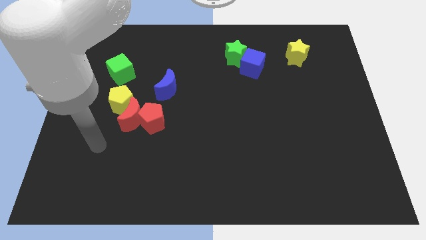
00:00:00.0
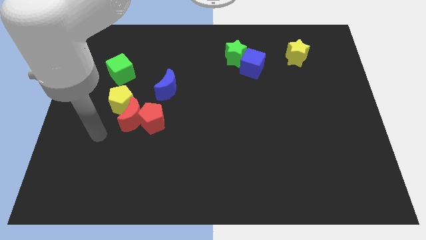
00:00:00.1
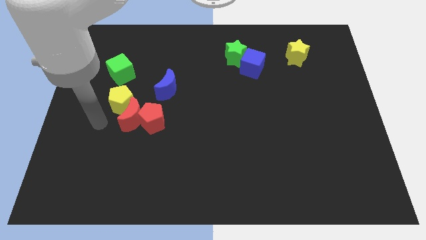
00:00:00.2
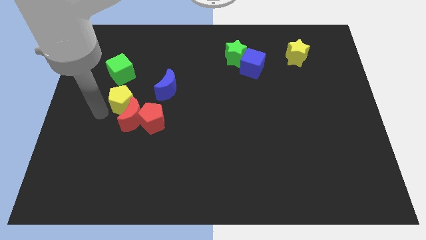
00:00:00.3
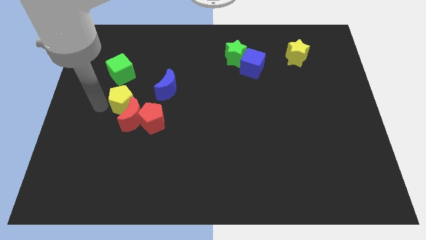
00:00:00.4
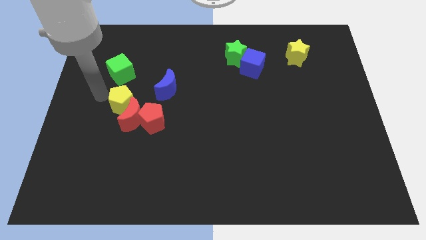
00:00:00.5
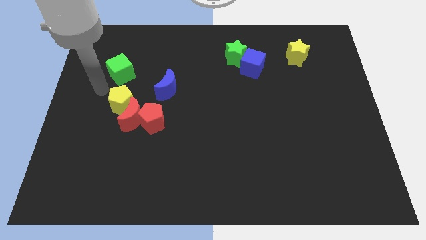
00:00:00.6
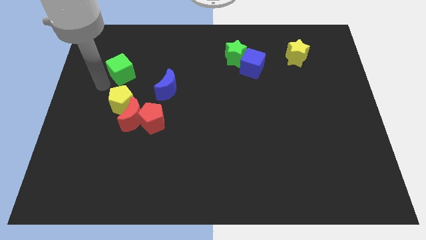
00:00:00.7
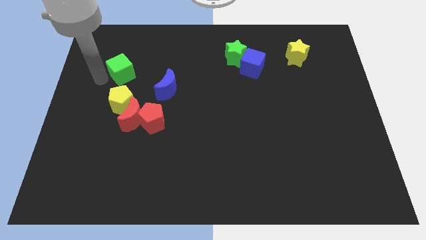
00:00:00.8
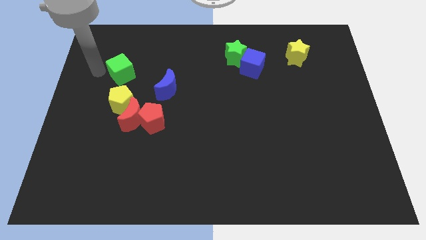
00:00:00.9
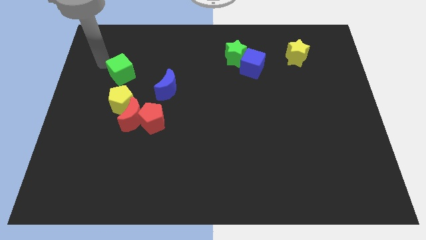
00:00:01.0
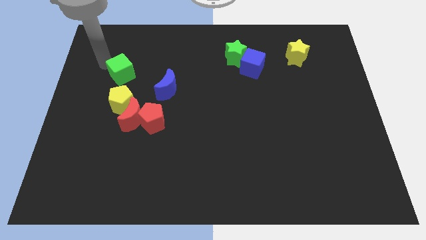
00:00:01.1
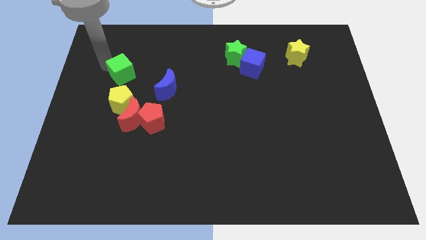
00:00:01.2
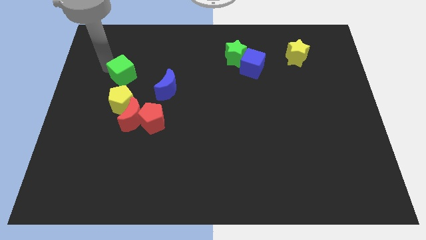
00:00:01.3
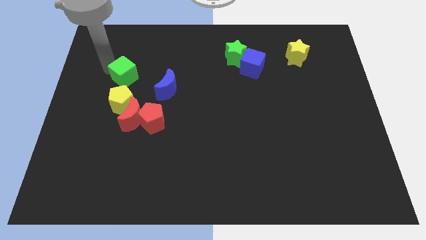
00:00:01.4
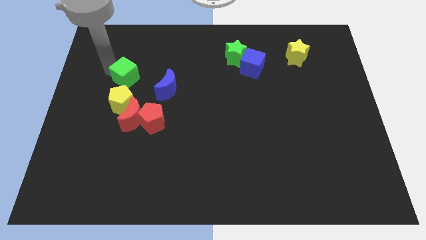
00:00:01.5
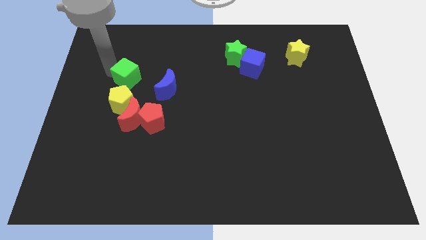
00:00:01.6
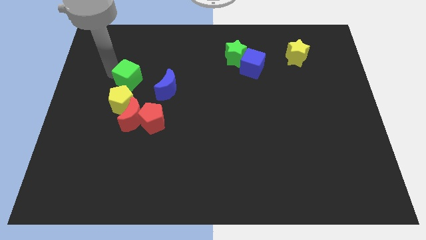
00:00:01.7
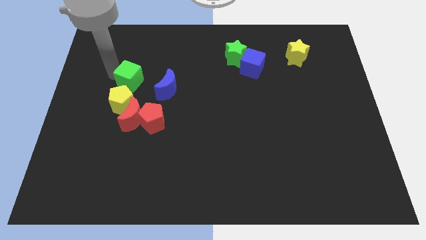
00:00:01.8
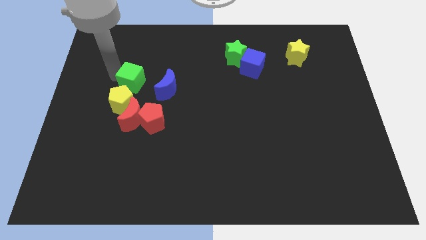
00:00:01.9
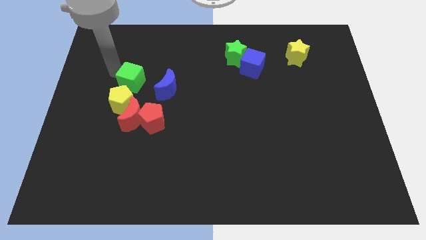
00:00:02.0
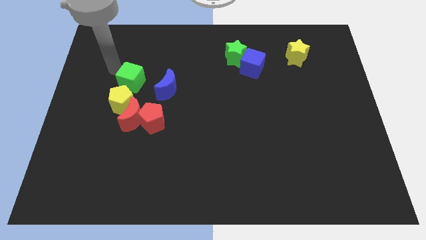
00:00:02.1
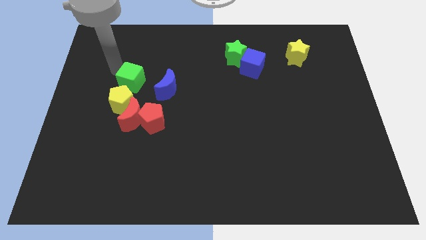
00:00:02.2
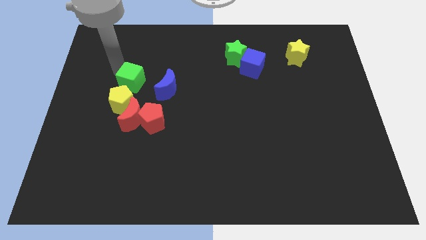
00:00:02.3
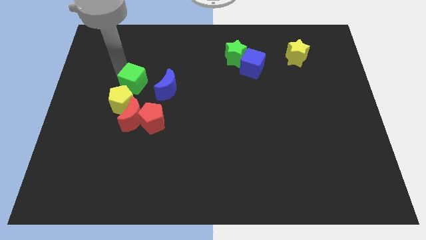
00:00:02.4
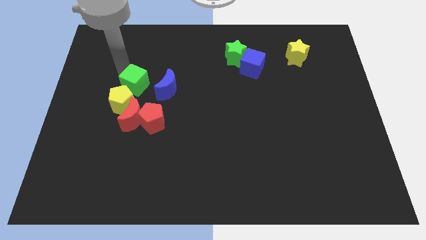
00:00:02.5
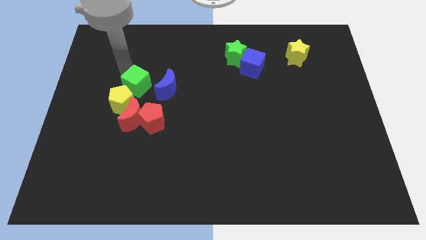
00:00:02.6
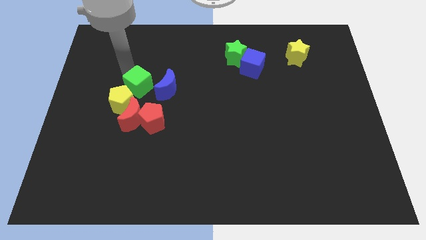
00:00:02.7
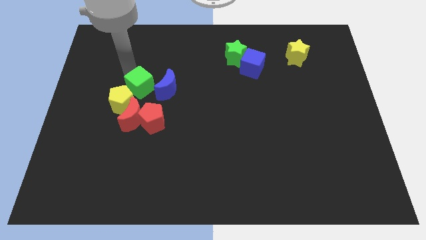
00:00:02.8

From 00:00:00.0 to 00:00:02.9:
slide the green cube a little diagonally down and right

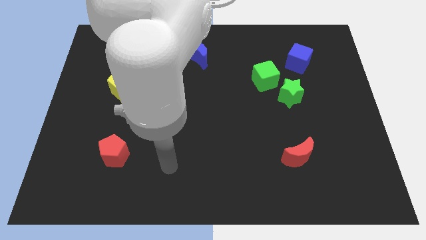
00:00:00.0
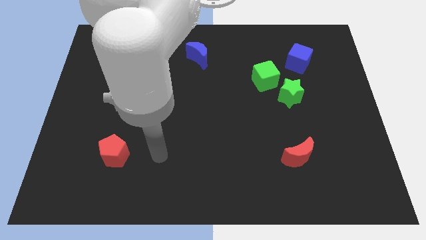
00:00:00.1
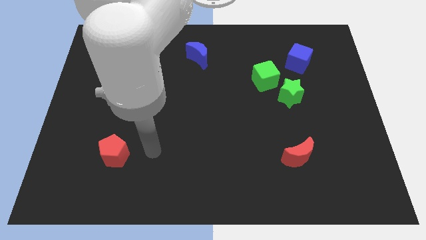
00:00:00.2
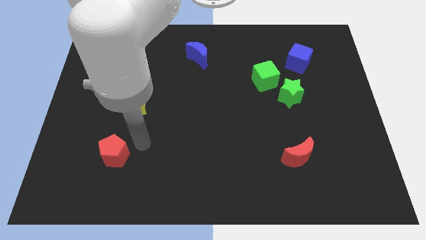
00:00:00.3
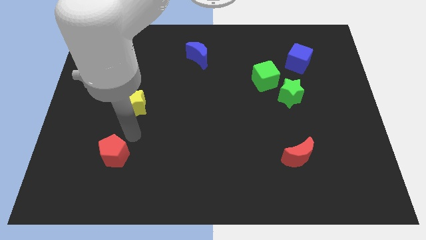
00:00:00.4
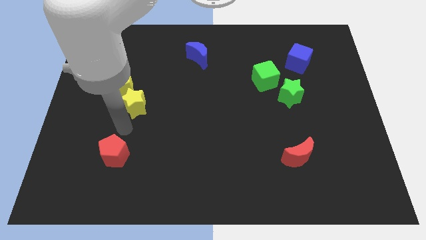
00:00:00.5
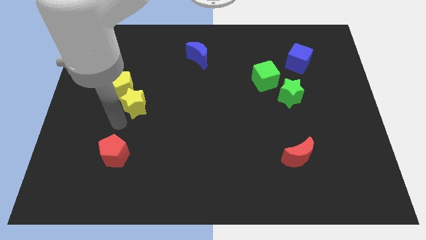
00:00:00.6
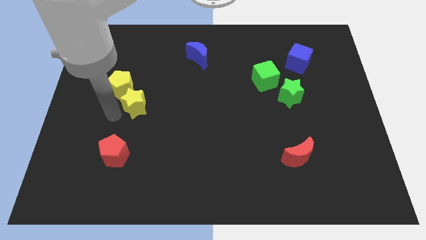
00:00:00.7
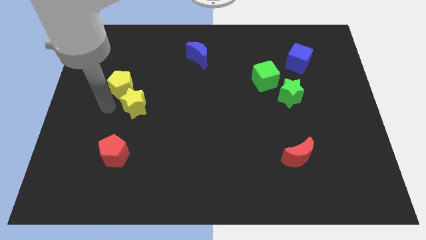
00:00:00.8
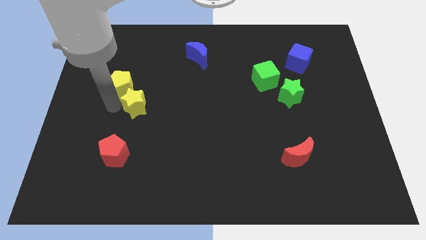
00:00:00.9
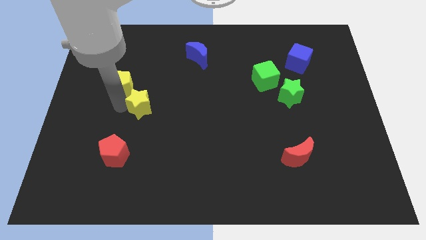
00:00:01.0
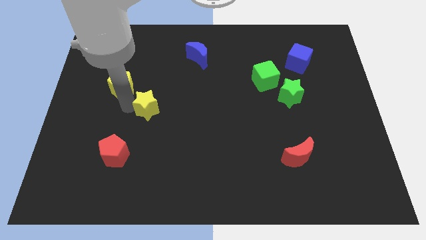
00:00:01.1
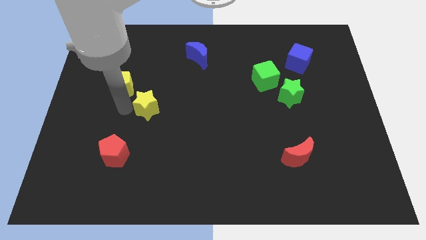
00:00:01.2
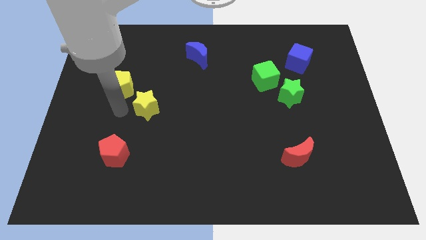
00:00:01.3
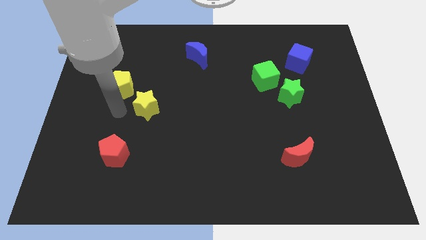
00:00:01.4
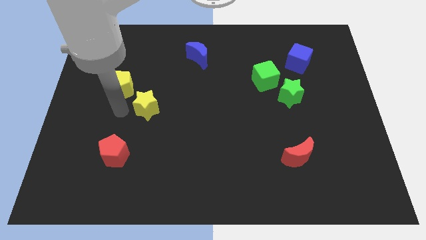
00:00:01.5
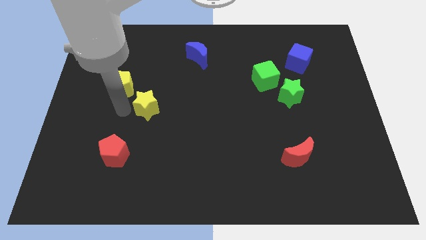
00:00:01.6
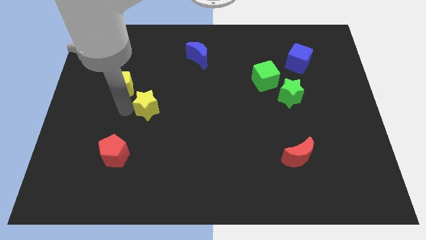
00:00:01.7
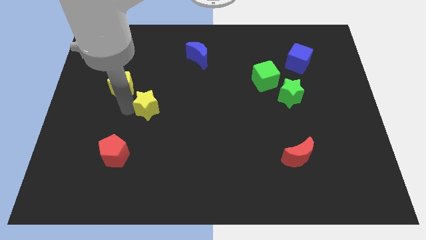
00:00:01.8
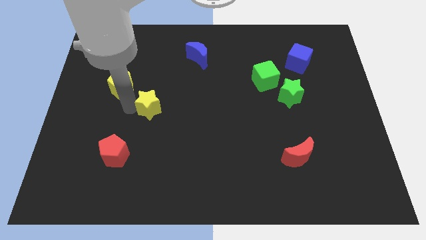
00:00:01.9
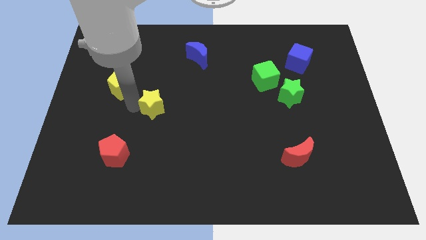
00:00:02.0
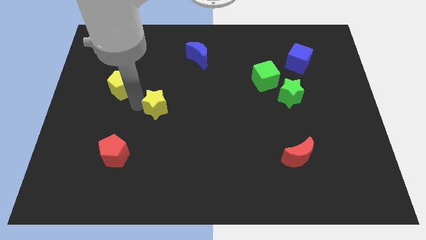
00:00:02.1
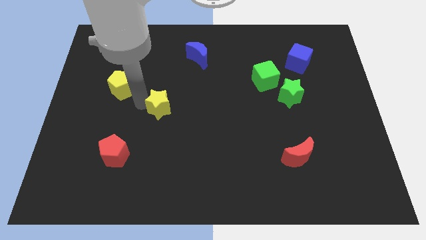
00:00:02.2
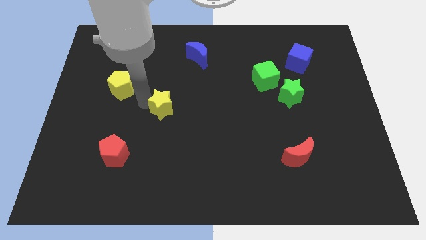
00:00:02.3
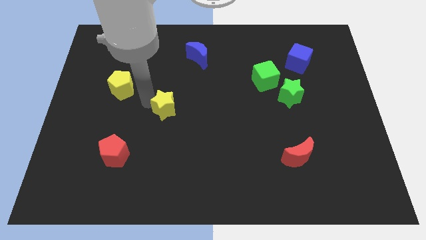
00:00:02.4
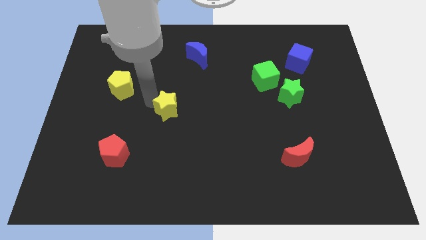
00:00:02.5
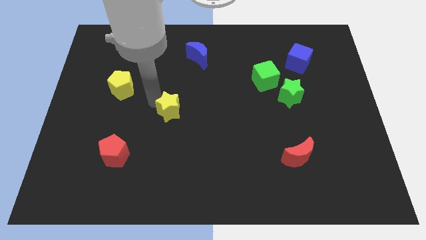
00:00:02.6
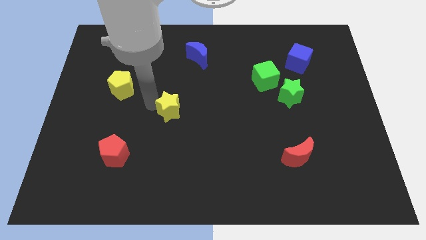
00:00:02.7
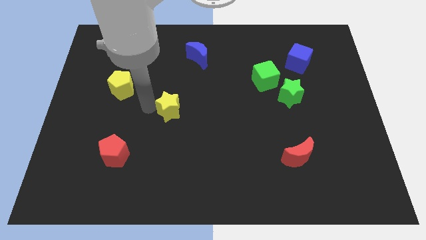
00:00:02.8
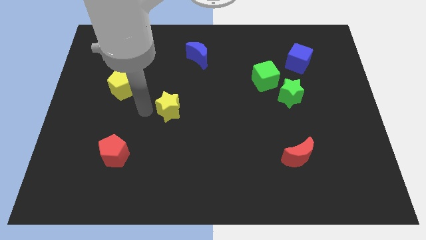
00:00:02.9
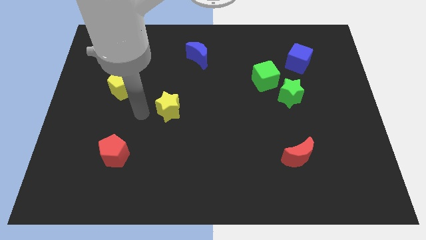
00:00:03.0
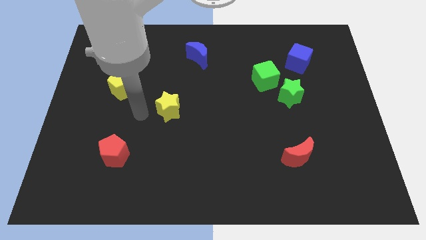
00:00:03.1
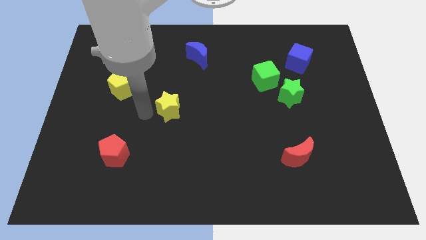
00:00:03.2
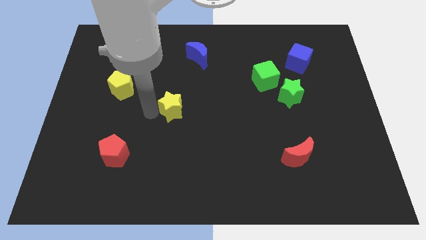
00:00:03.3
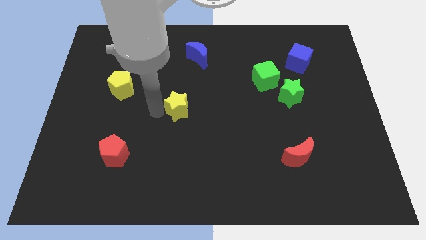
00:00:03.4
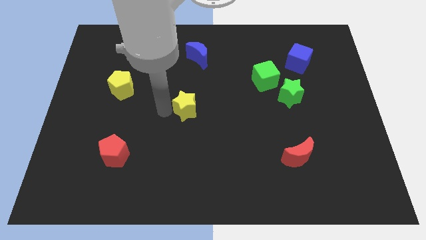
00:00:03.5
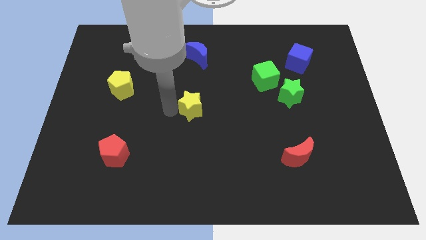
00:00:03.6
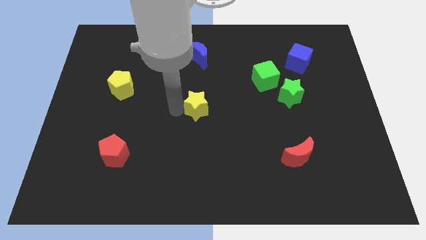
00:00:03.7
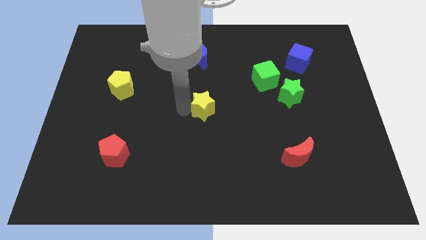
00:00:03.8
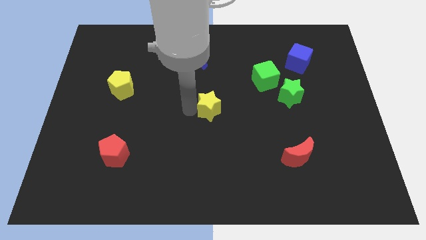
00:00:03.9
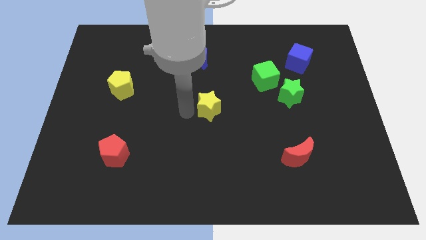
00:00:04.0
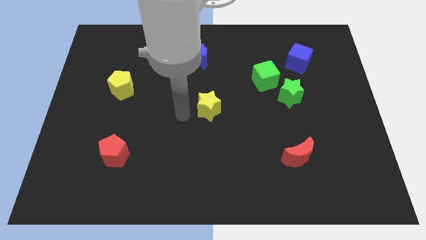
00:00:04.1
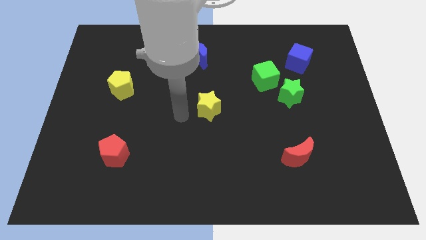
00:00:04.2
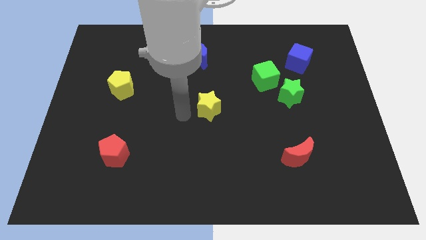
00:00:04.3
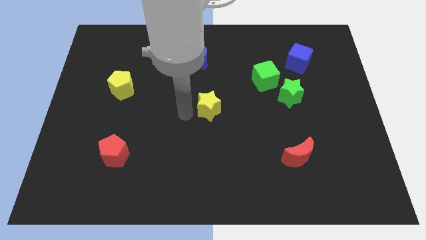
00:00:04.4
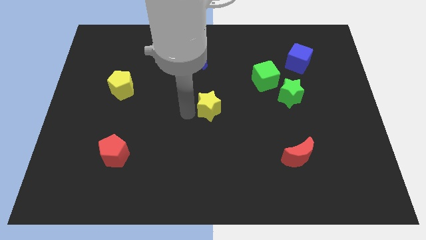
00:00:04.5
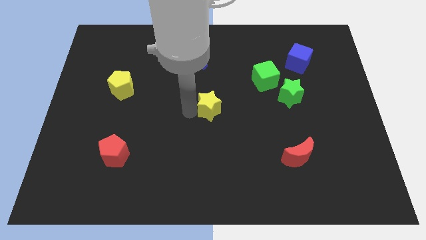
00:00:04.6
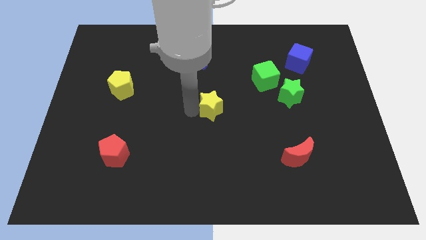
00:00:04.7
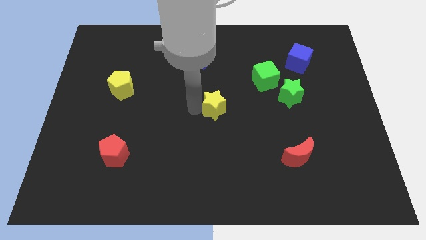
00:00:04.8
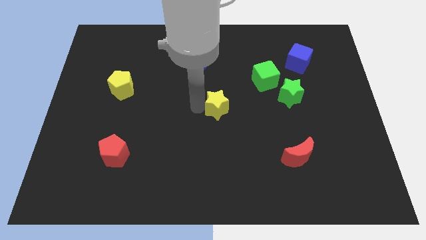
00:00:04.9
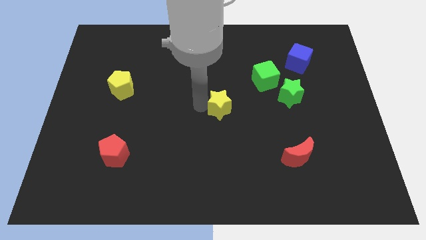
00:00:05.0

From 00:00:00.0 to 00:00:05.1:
slide the yellow star right
